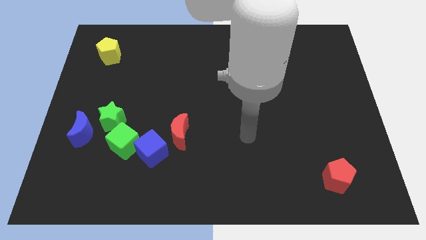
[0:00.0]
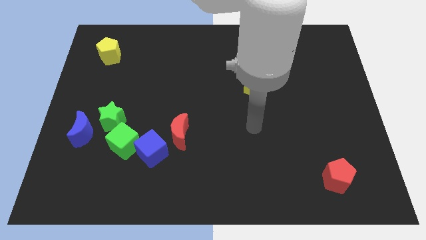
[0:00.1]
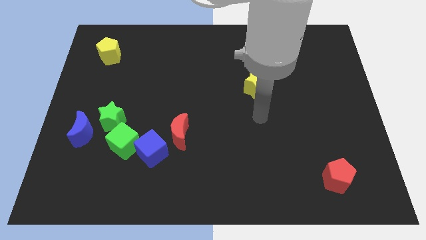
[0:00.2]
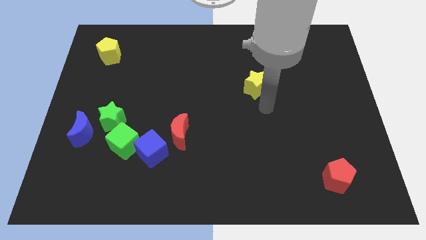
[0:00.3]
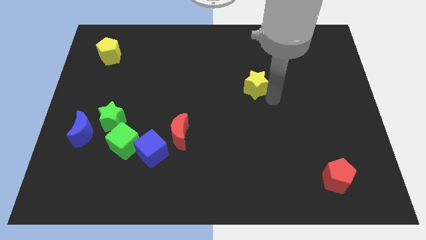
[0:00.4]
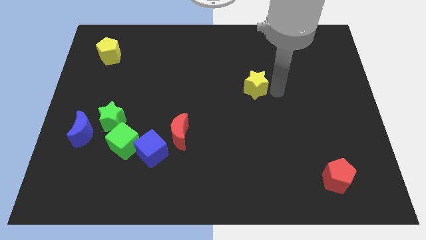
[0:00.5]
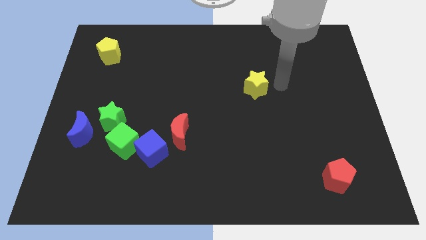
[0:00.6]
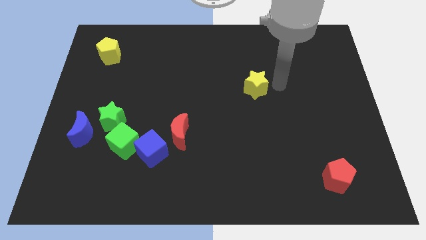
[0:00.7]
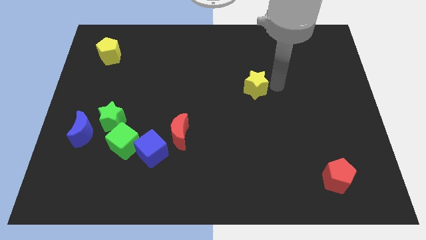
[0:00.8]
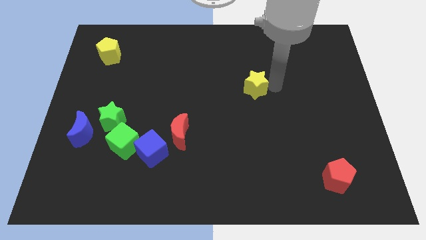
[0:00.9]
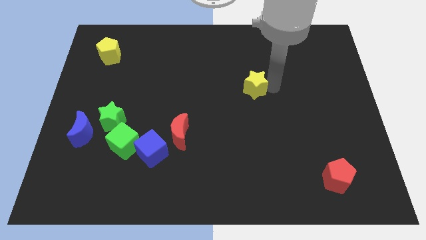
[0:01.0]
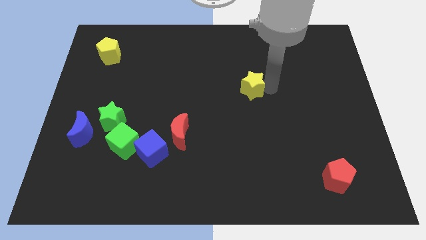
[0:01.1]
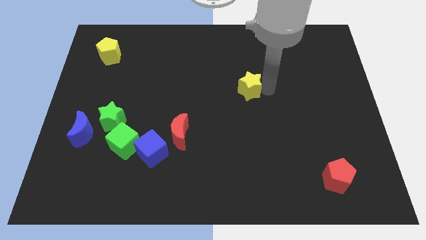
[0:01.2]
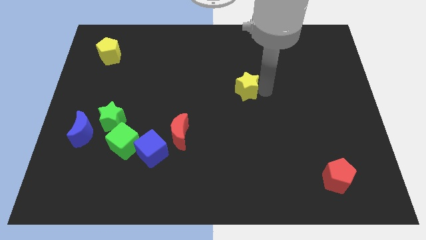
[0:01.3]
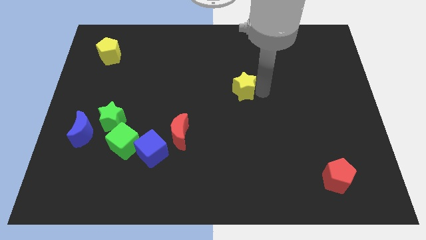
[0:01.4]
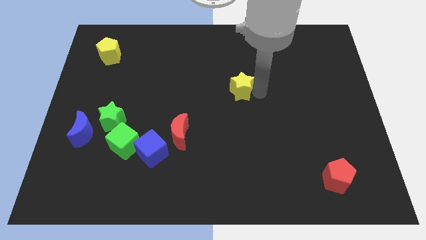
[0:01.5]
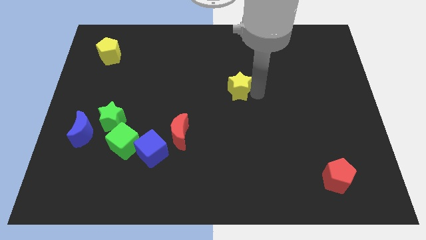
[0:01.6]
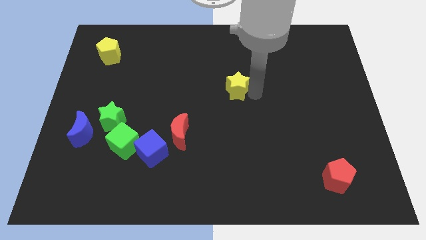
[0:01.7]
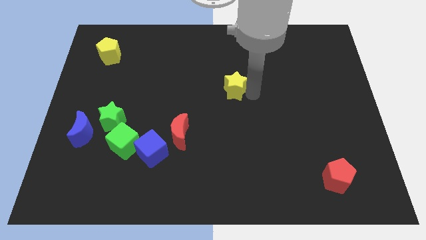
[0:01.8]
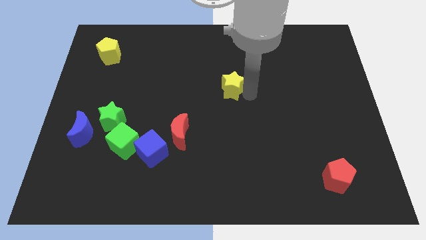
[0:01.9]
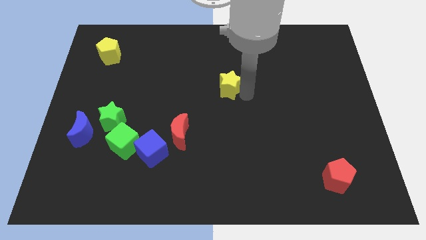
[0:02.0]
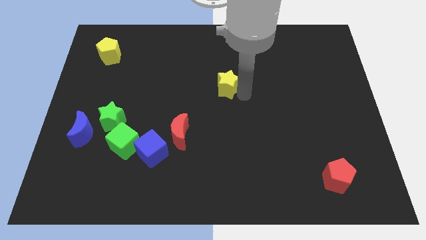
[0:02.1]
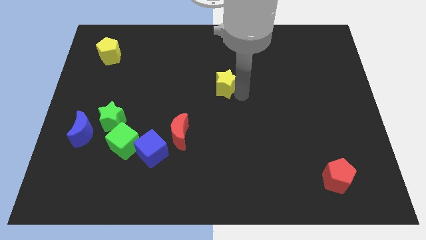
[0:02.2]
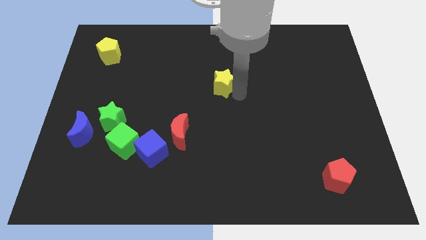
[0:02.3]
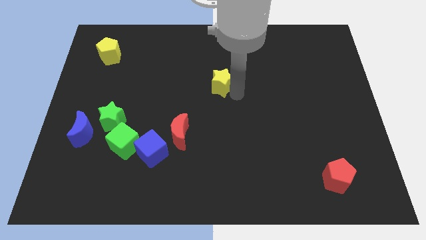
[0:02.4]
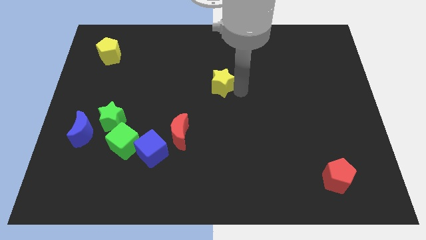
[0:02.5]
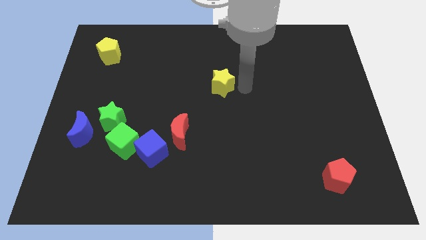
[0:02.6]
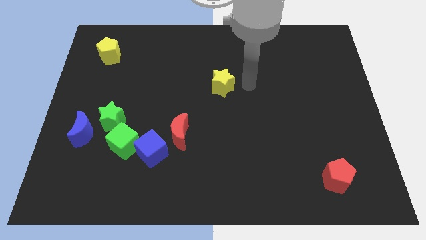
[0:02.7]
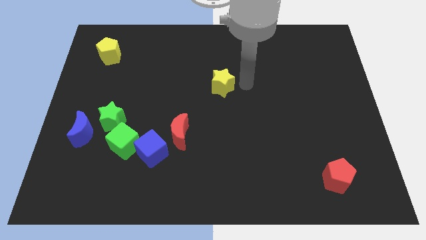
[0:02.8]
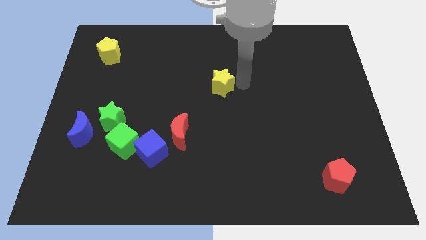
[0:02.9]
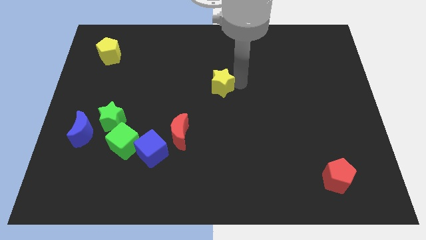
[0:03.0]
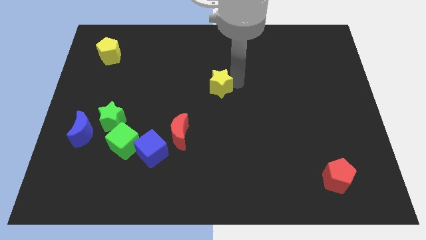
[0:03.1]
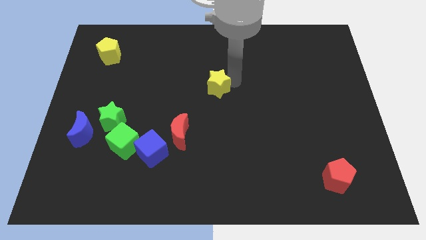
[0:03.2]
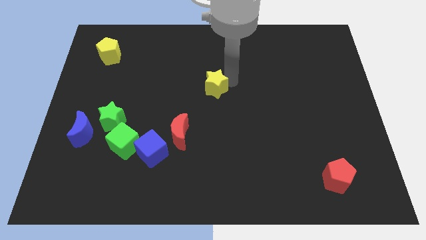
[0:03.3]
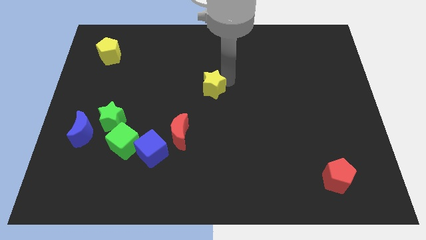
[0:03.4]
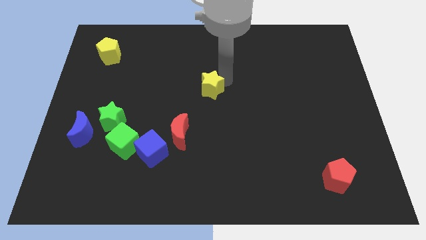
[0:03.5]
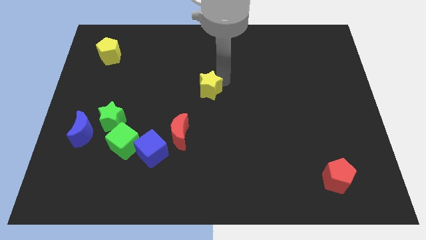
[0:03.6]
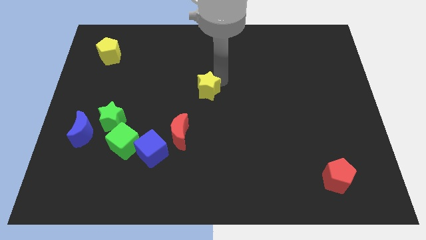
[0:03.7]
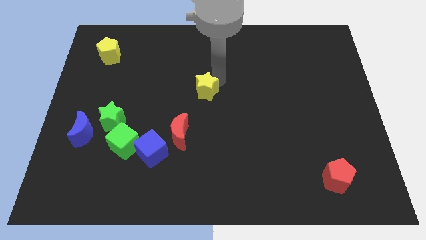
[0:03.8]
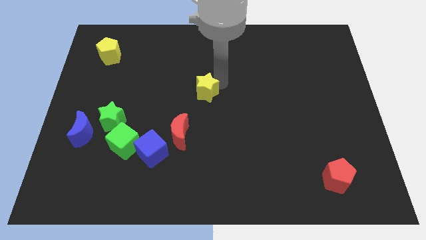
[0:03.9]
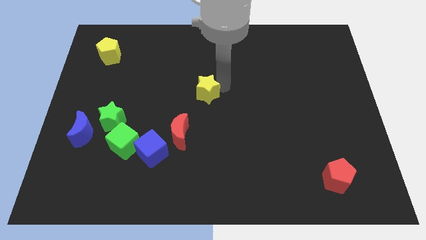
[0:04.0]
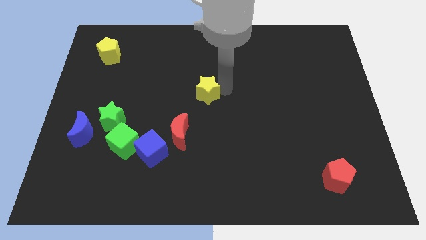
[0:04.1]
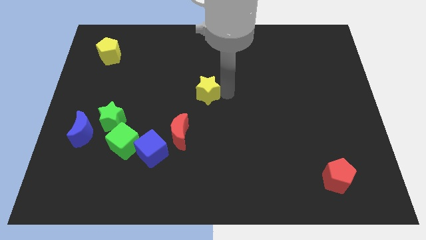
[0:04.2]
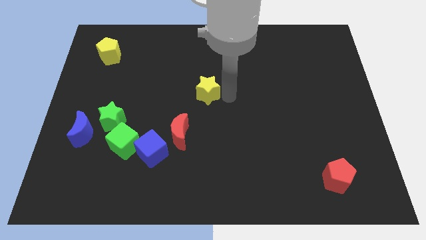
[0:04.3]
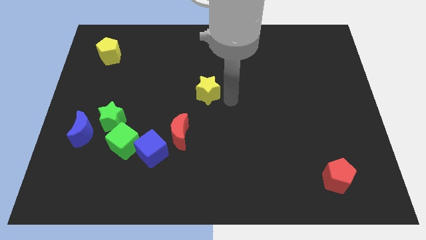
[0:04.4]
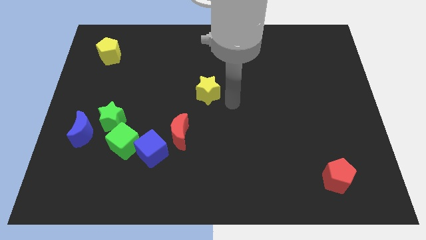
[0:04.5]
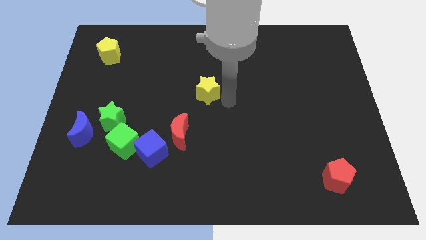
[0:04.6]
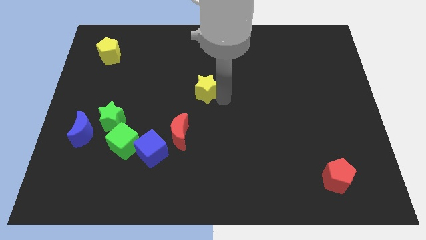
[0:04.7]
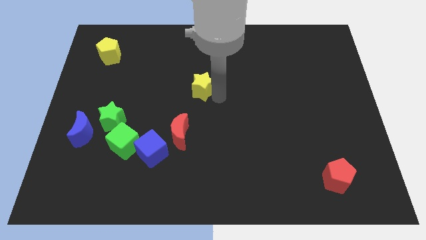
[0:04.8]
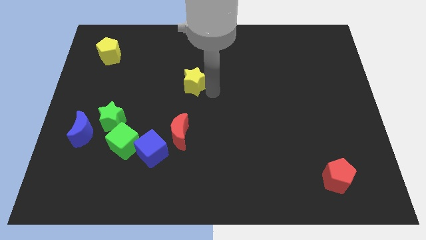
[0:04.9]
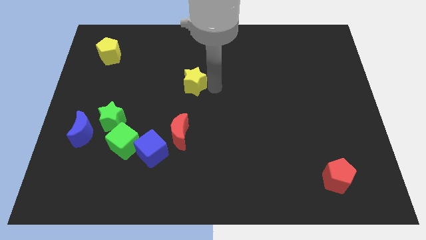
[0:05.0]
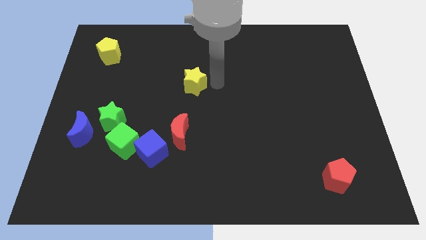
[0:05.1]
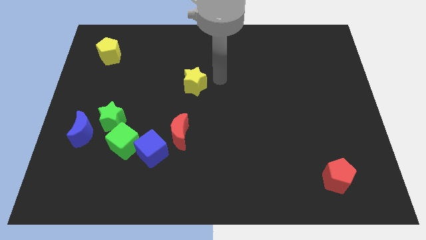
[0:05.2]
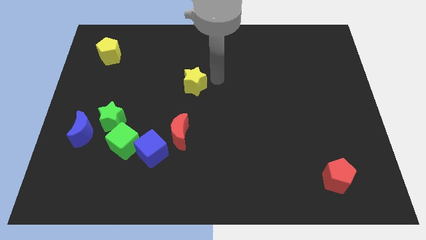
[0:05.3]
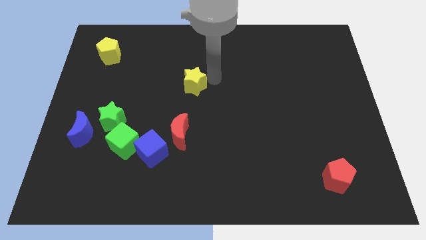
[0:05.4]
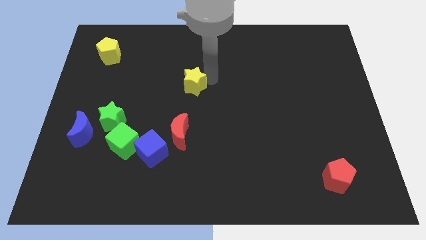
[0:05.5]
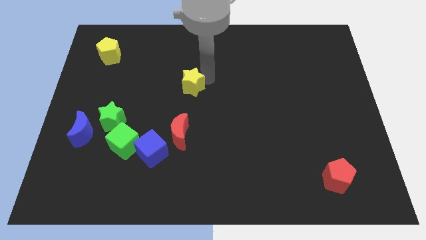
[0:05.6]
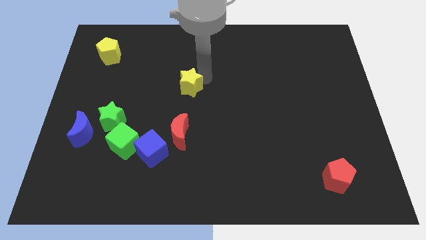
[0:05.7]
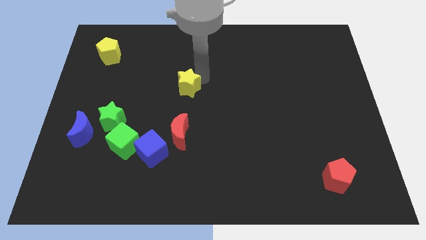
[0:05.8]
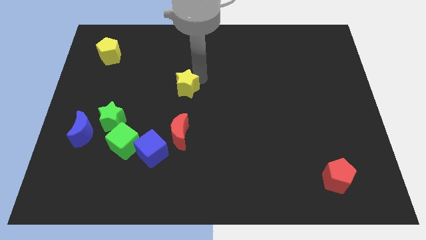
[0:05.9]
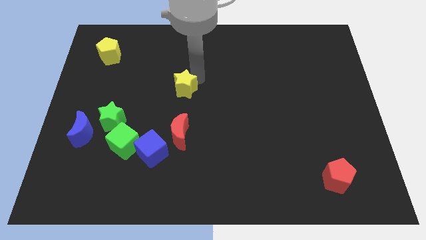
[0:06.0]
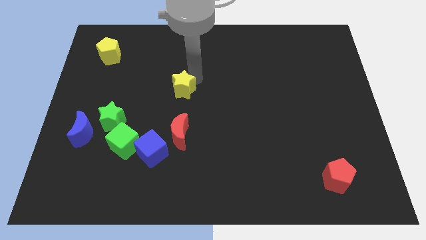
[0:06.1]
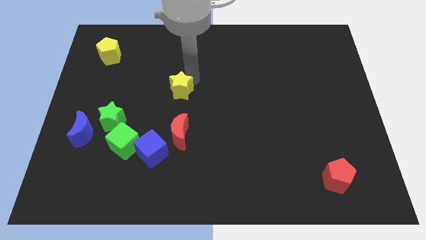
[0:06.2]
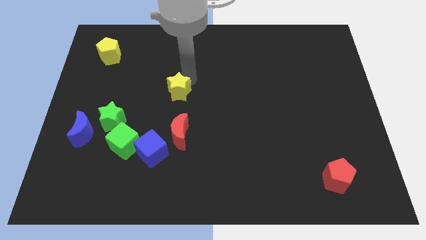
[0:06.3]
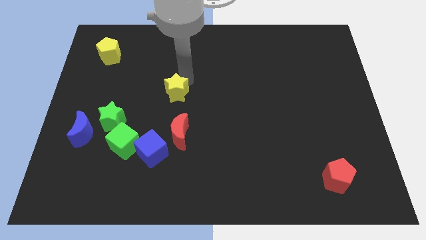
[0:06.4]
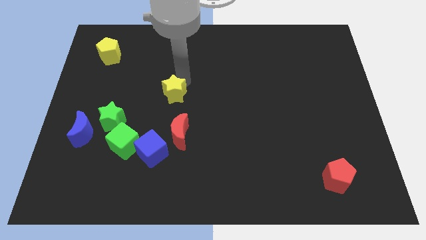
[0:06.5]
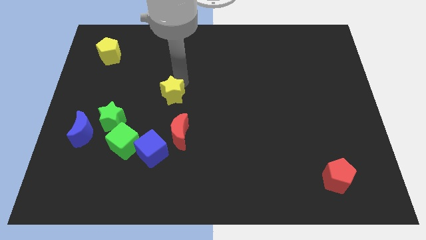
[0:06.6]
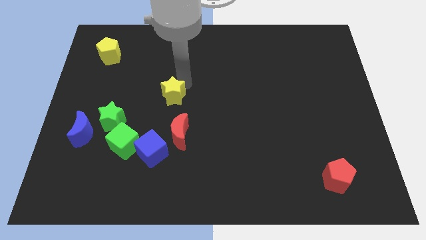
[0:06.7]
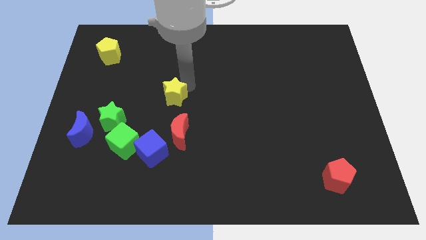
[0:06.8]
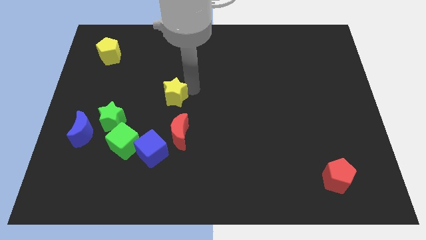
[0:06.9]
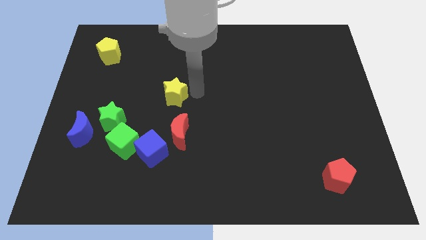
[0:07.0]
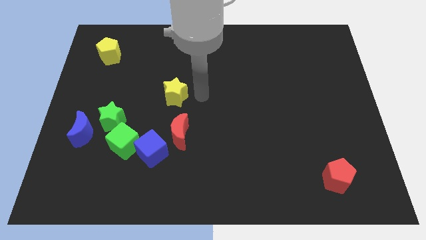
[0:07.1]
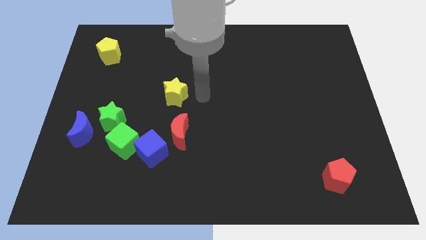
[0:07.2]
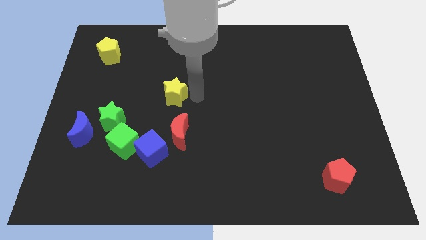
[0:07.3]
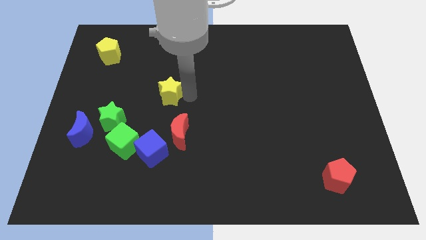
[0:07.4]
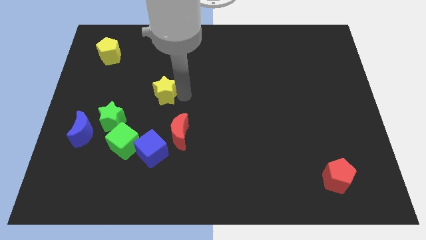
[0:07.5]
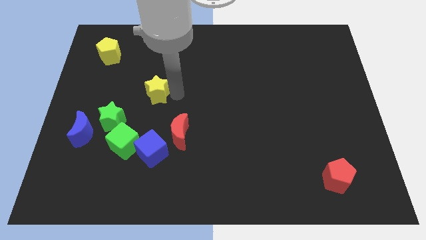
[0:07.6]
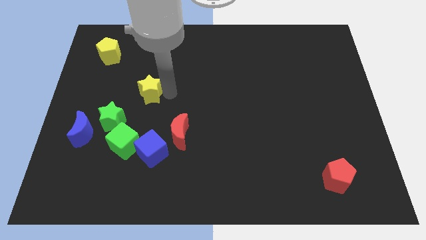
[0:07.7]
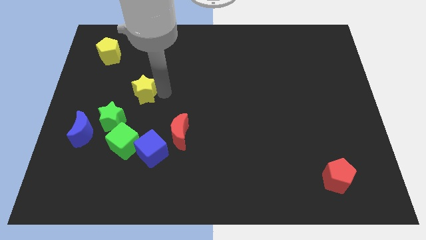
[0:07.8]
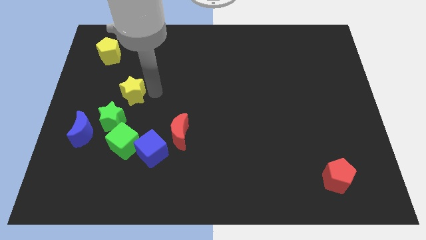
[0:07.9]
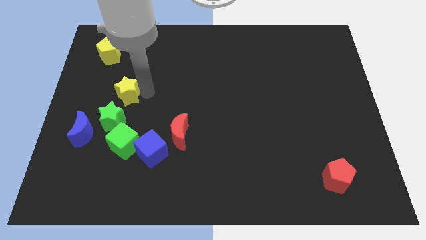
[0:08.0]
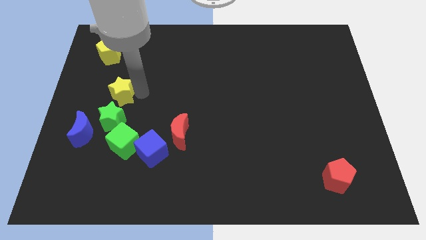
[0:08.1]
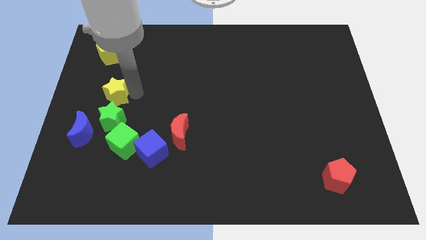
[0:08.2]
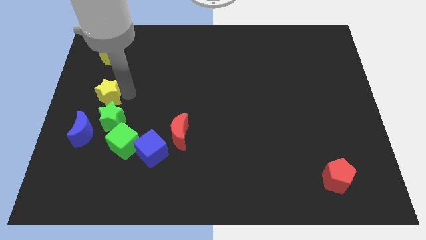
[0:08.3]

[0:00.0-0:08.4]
move the yellow star to the top side of the blue moon
